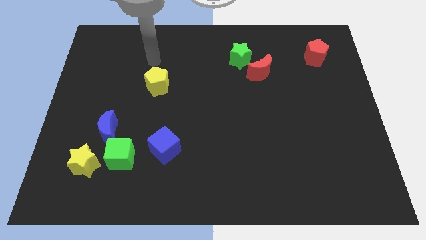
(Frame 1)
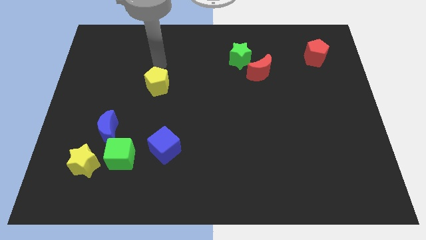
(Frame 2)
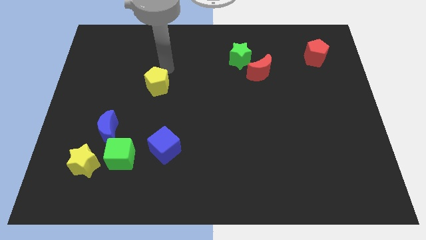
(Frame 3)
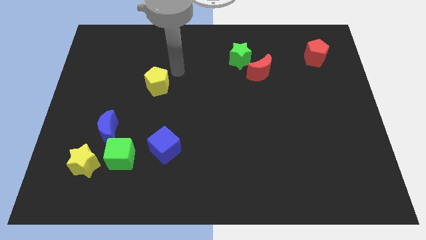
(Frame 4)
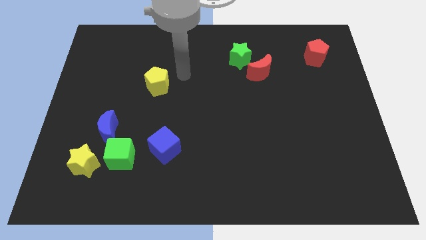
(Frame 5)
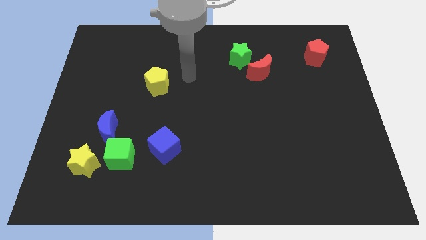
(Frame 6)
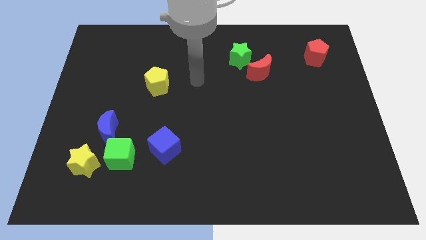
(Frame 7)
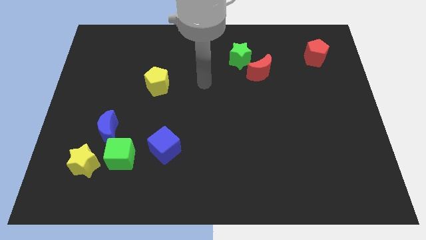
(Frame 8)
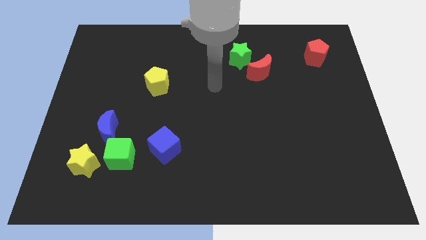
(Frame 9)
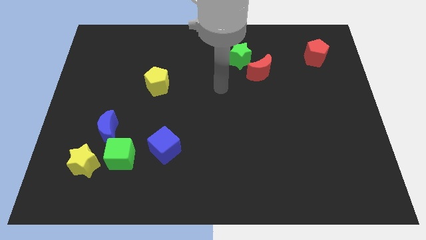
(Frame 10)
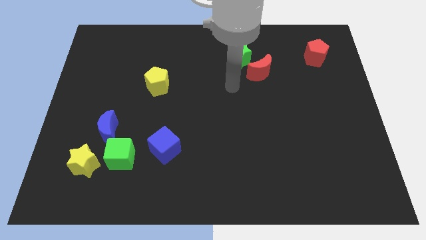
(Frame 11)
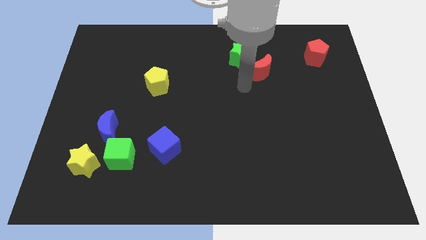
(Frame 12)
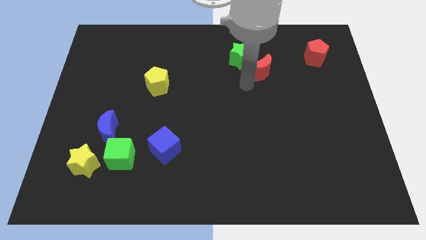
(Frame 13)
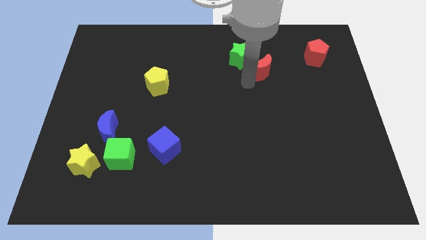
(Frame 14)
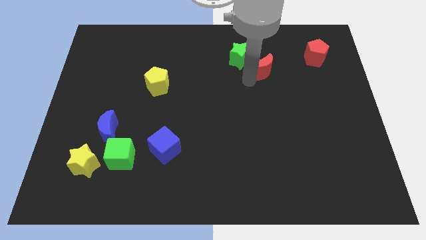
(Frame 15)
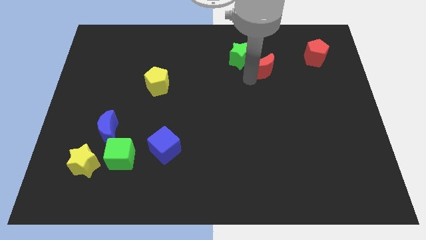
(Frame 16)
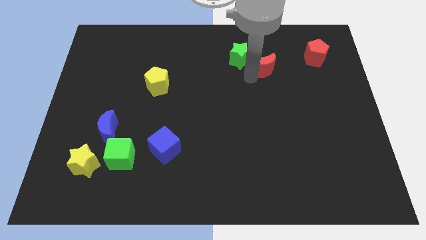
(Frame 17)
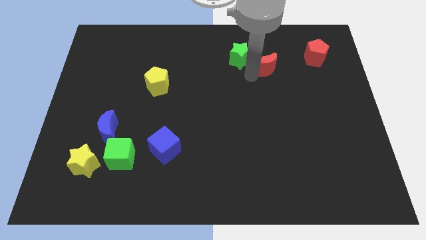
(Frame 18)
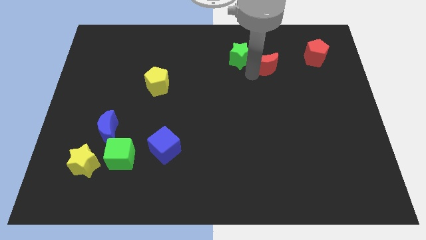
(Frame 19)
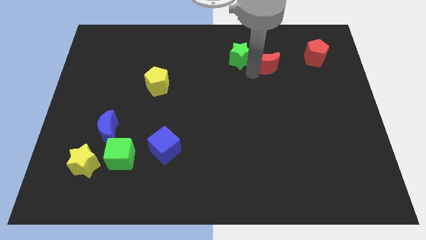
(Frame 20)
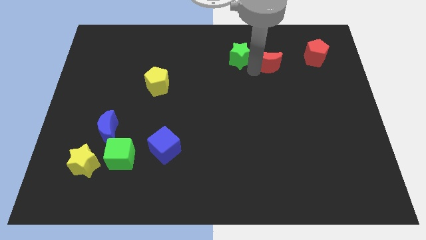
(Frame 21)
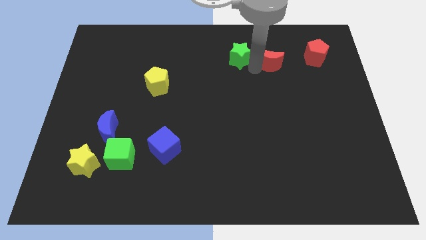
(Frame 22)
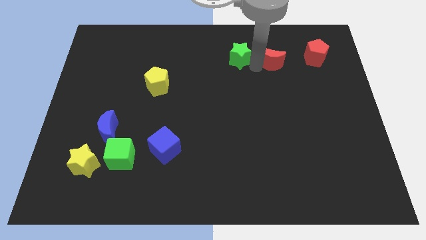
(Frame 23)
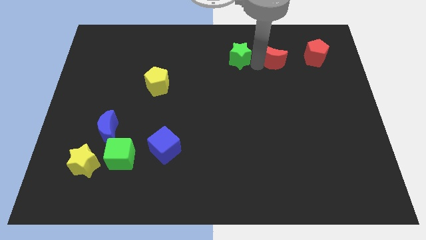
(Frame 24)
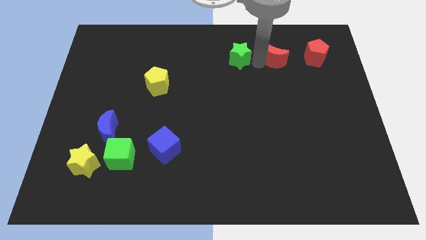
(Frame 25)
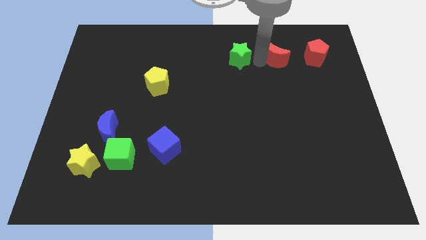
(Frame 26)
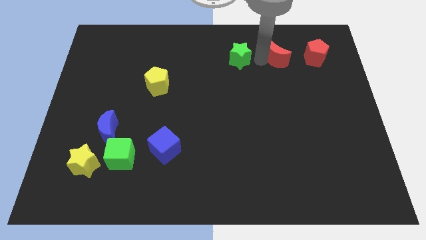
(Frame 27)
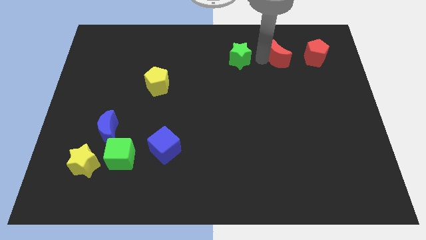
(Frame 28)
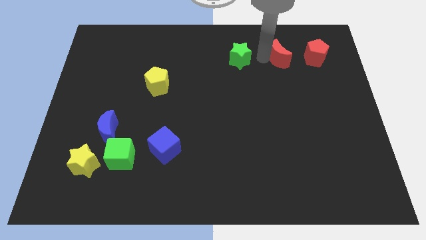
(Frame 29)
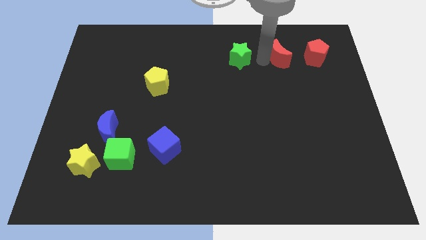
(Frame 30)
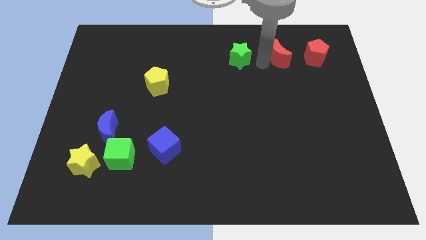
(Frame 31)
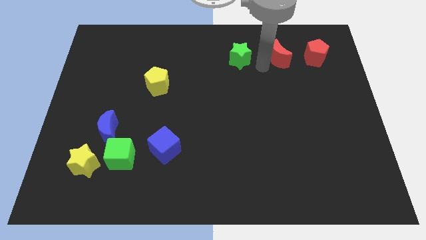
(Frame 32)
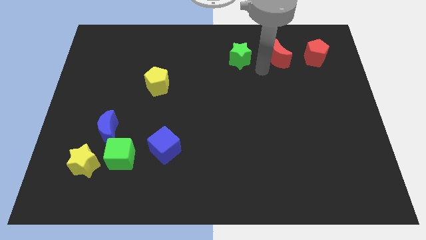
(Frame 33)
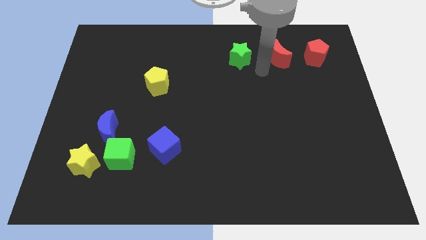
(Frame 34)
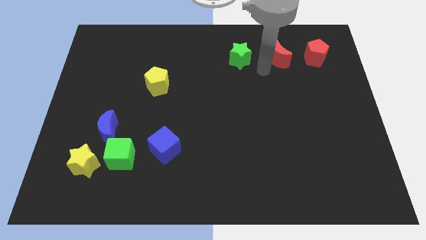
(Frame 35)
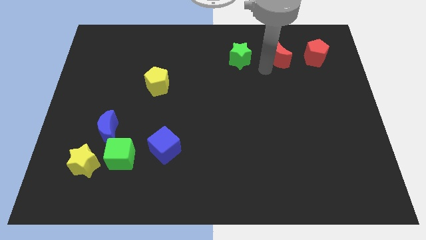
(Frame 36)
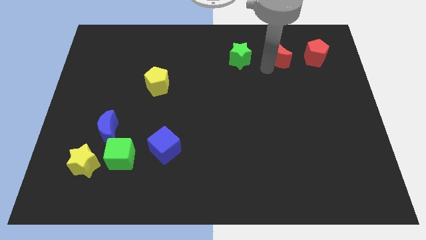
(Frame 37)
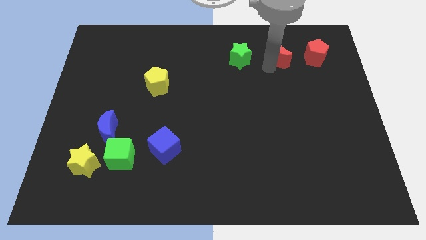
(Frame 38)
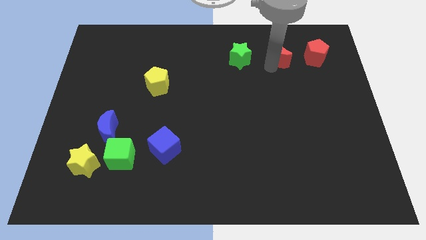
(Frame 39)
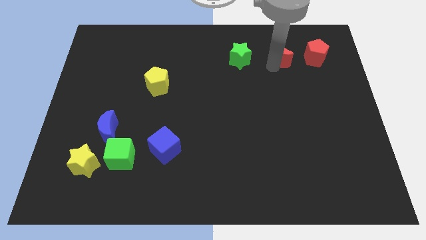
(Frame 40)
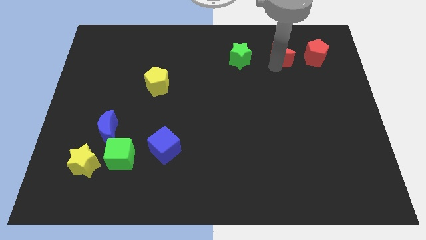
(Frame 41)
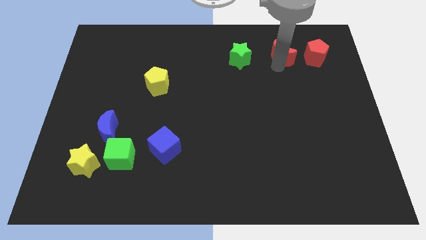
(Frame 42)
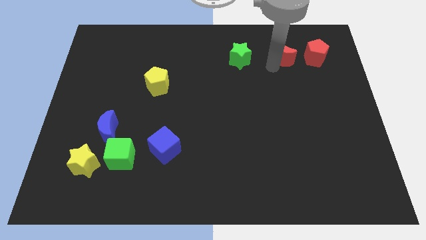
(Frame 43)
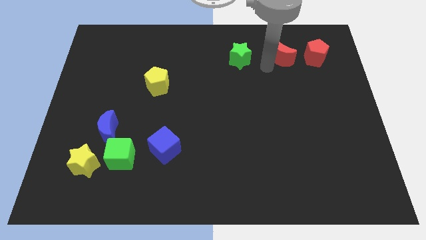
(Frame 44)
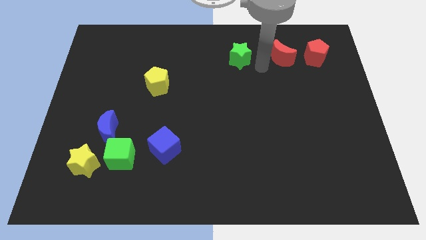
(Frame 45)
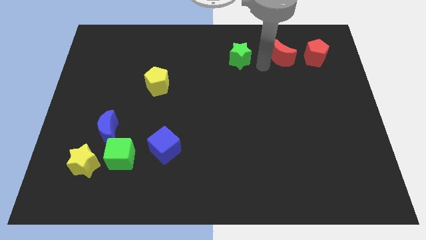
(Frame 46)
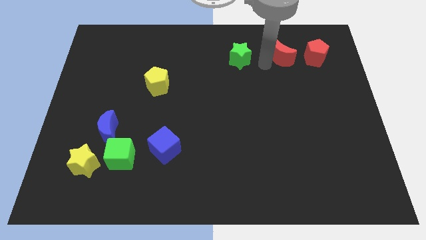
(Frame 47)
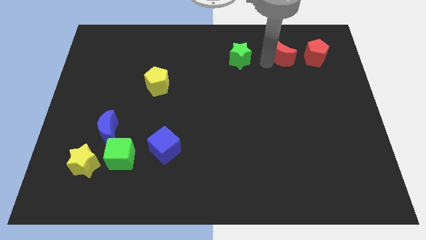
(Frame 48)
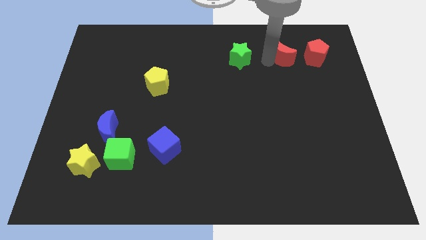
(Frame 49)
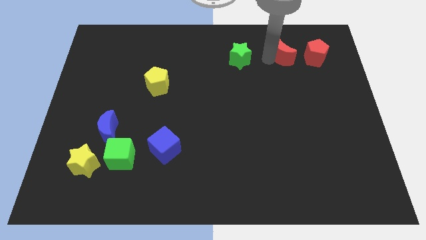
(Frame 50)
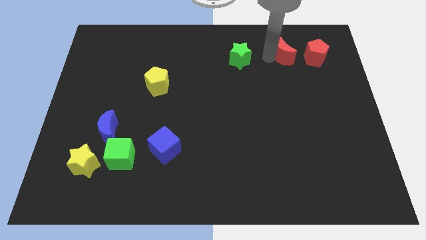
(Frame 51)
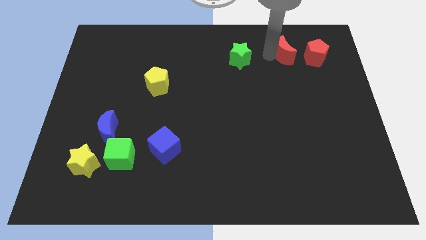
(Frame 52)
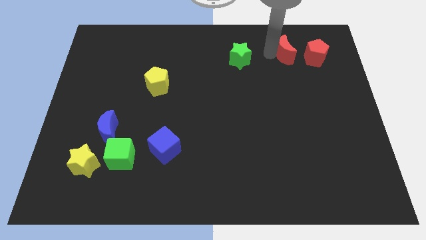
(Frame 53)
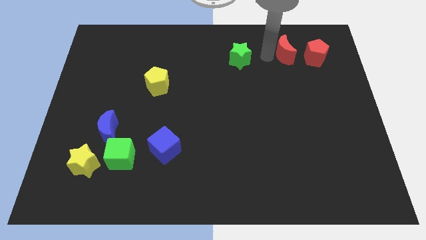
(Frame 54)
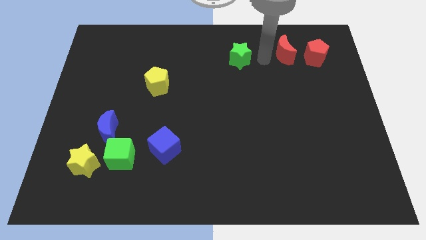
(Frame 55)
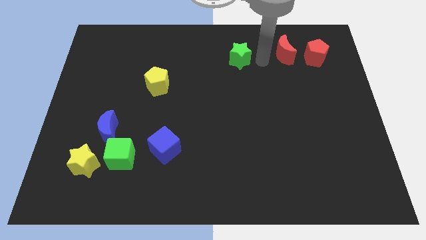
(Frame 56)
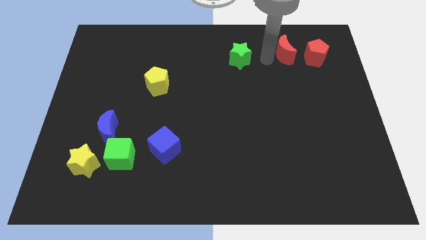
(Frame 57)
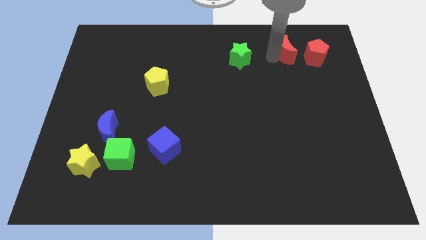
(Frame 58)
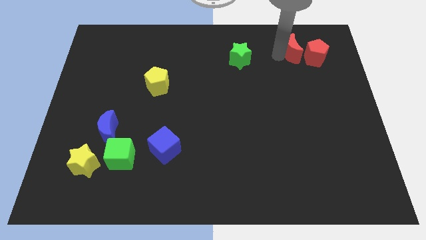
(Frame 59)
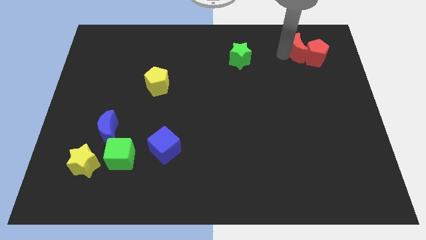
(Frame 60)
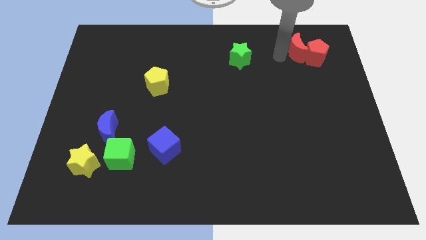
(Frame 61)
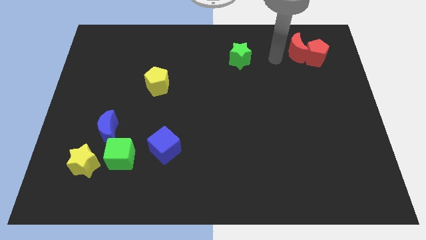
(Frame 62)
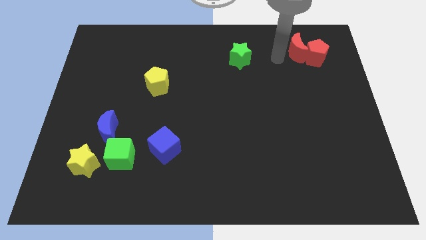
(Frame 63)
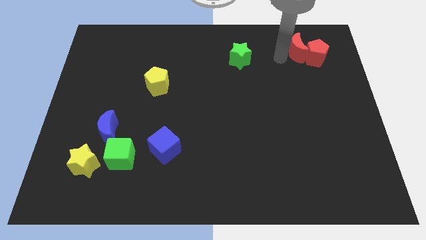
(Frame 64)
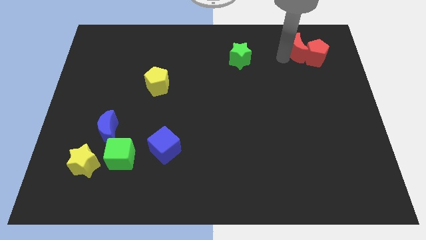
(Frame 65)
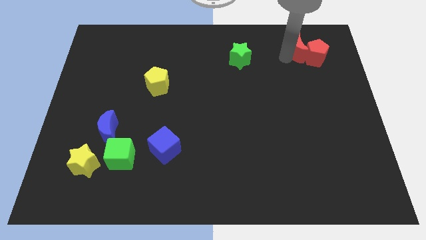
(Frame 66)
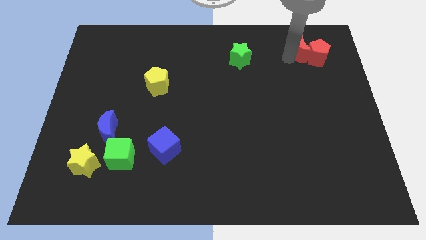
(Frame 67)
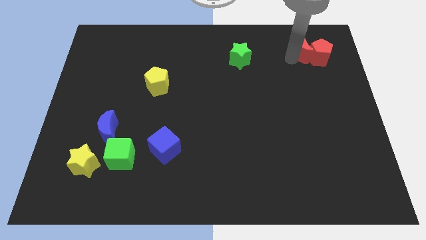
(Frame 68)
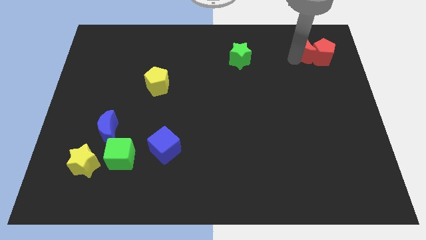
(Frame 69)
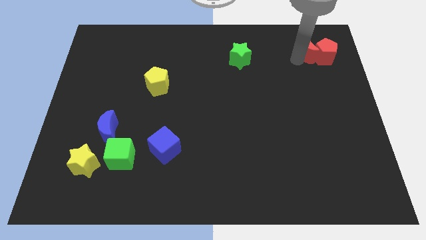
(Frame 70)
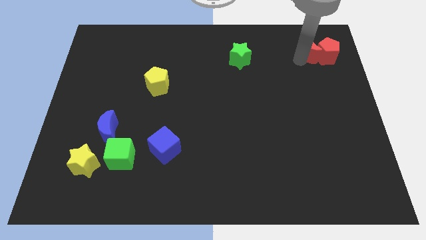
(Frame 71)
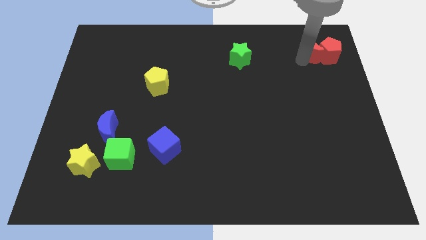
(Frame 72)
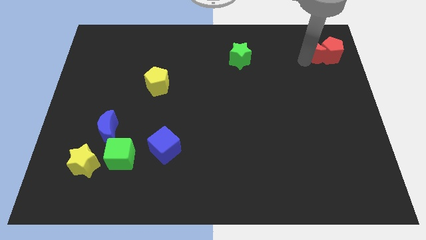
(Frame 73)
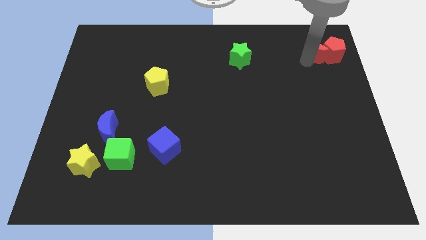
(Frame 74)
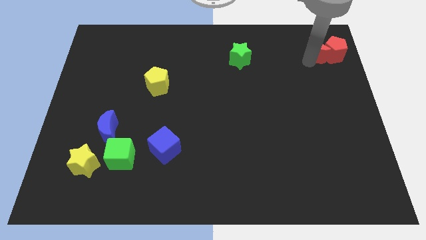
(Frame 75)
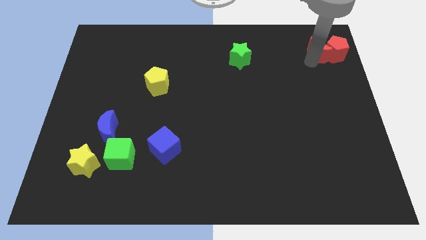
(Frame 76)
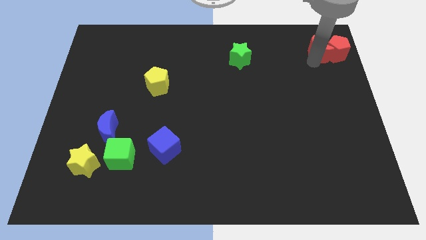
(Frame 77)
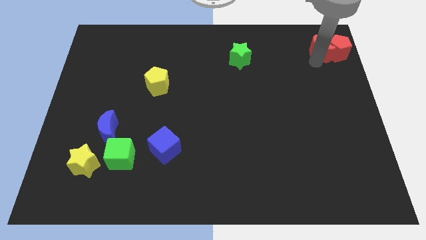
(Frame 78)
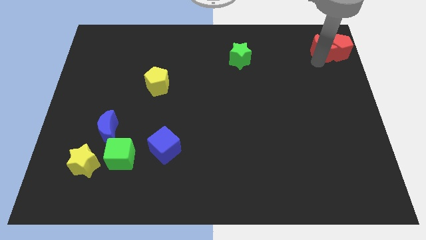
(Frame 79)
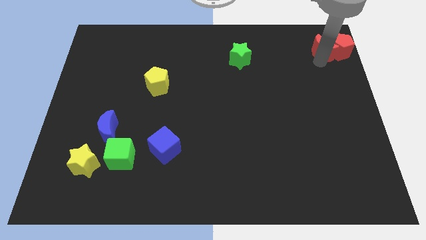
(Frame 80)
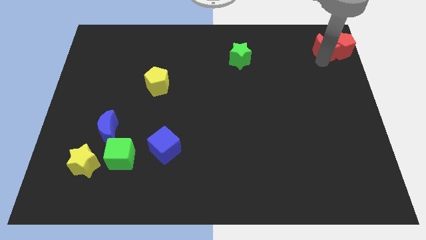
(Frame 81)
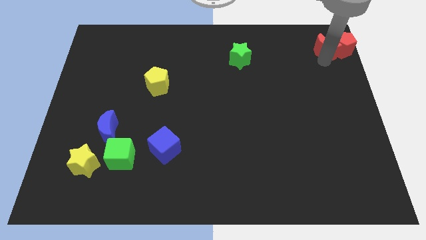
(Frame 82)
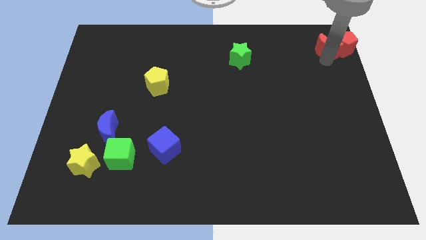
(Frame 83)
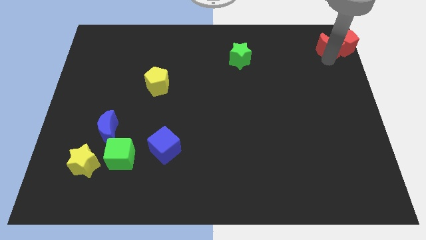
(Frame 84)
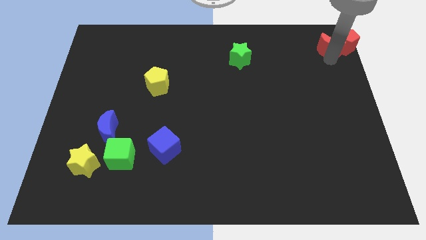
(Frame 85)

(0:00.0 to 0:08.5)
move the red moon to the top right
